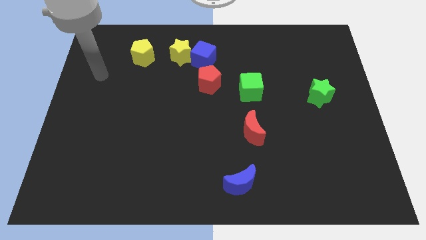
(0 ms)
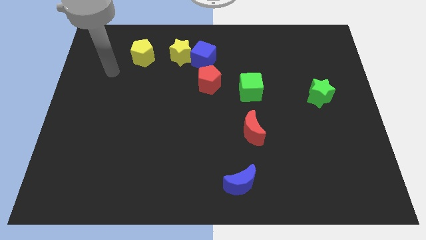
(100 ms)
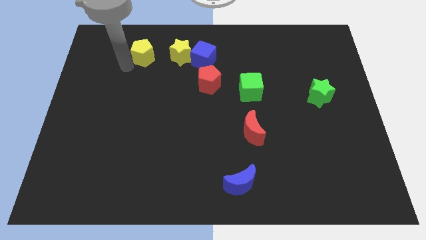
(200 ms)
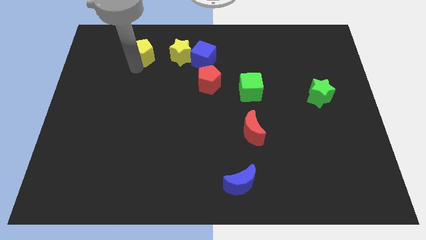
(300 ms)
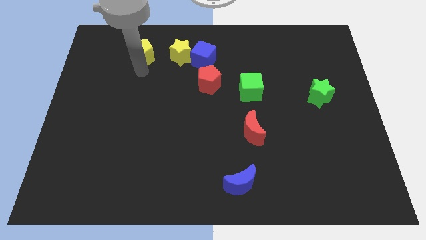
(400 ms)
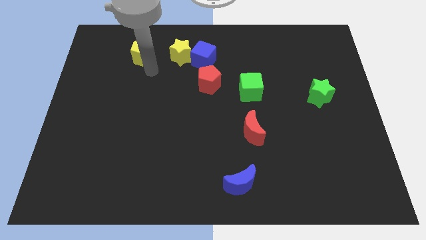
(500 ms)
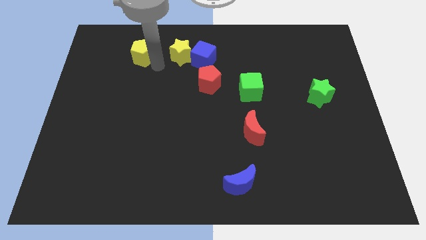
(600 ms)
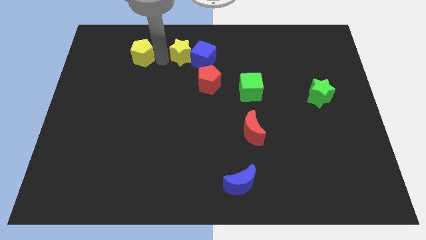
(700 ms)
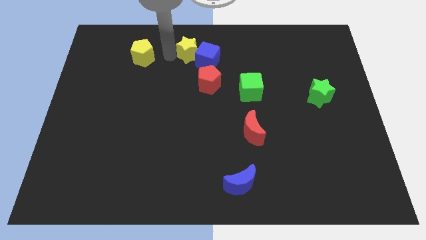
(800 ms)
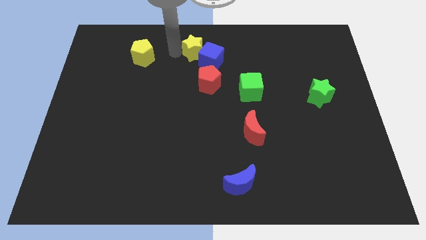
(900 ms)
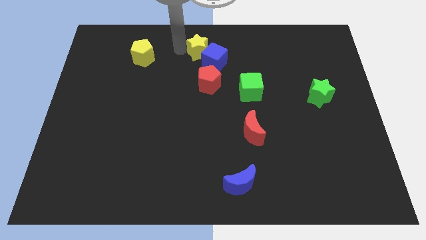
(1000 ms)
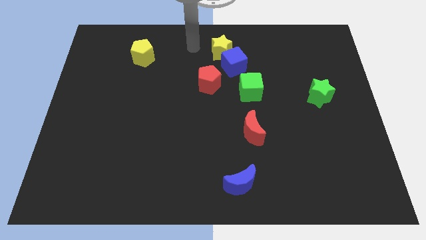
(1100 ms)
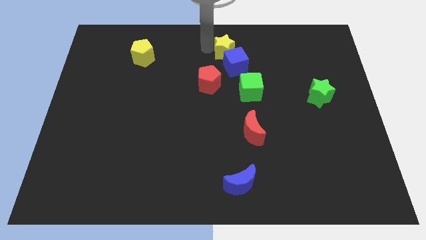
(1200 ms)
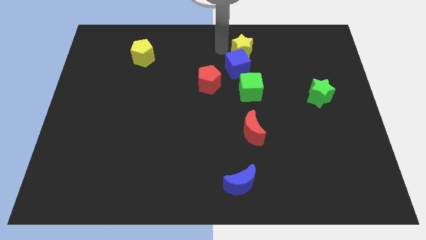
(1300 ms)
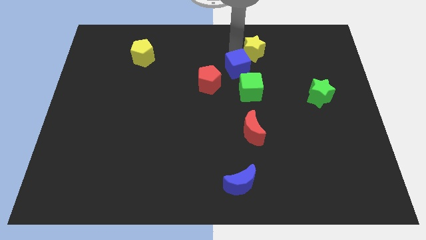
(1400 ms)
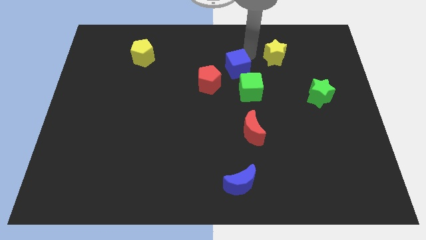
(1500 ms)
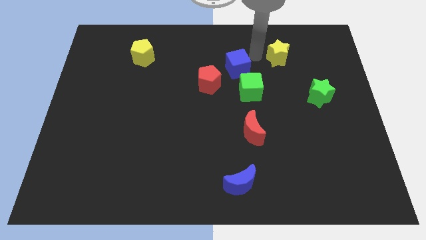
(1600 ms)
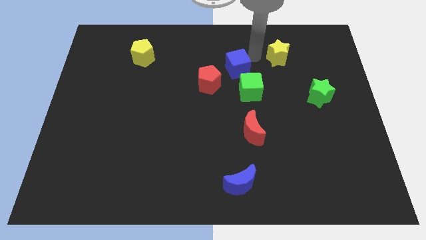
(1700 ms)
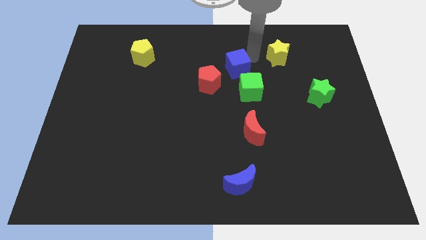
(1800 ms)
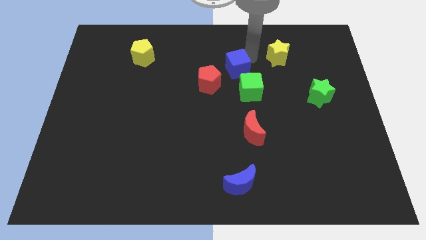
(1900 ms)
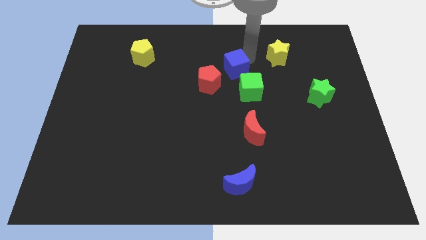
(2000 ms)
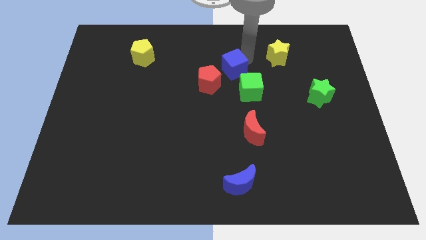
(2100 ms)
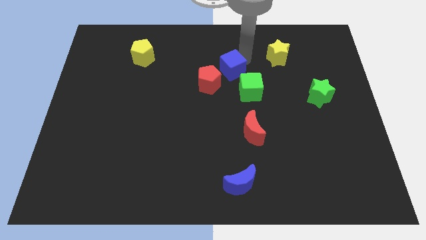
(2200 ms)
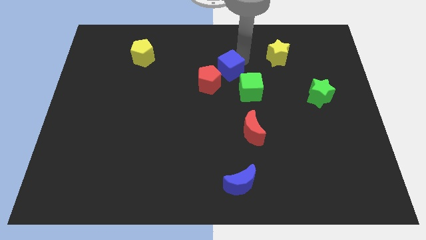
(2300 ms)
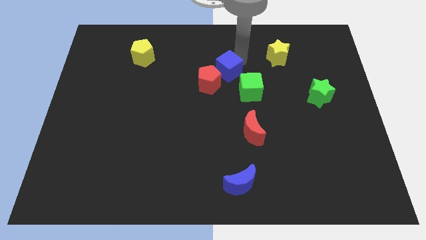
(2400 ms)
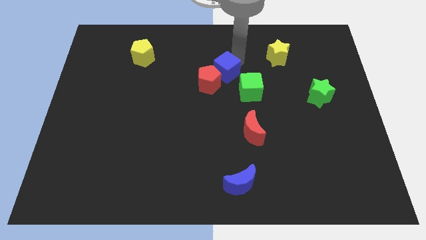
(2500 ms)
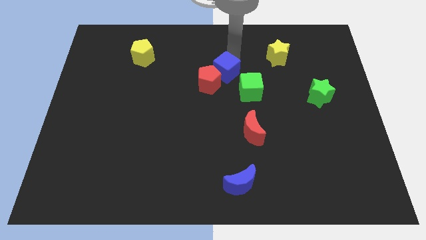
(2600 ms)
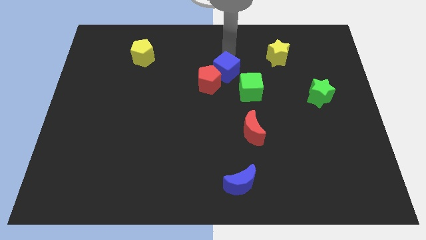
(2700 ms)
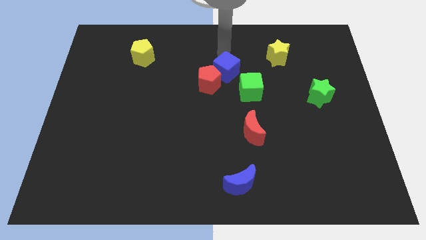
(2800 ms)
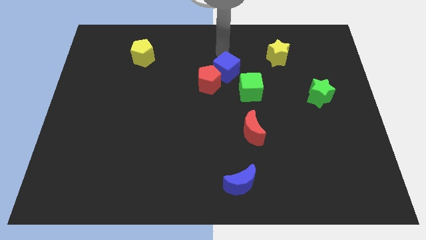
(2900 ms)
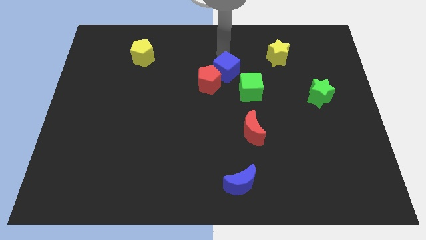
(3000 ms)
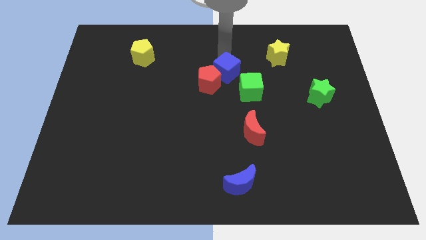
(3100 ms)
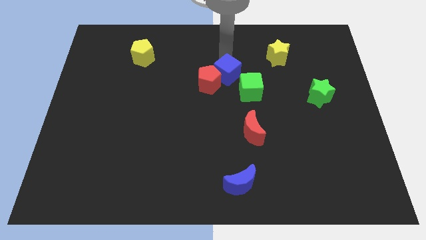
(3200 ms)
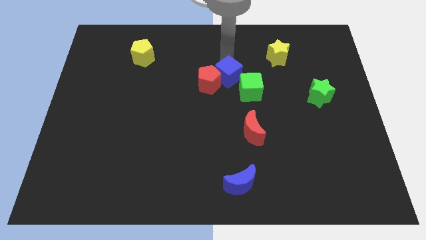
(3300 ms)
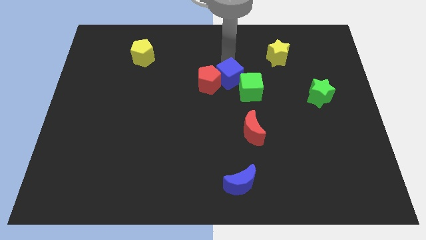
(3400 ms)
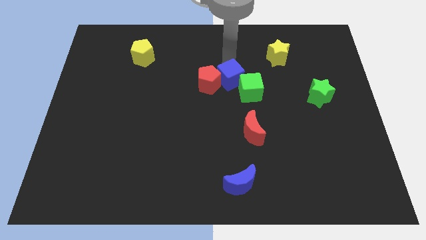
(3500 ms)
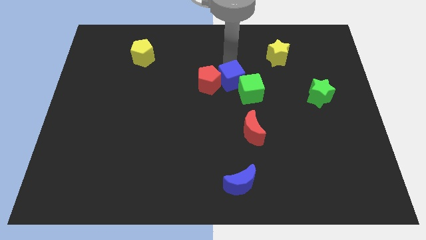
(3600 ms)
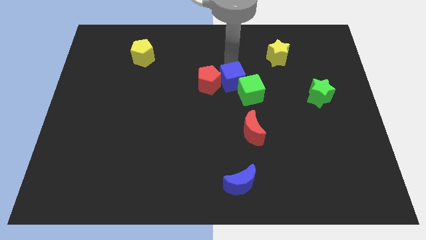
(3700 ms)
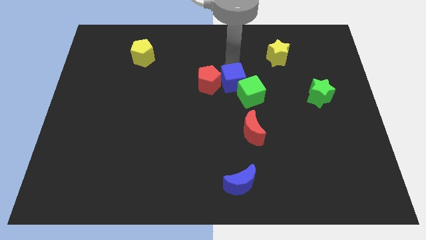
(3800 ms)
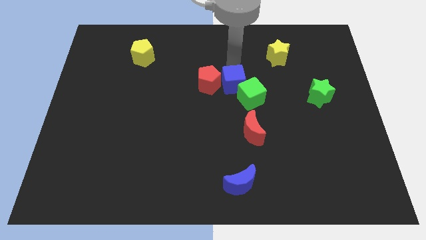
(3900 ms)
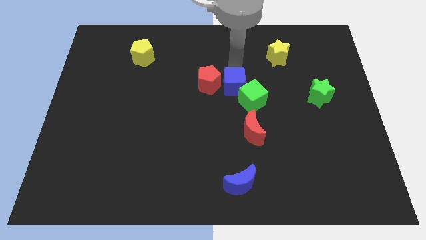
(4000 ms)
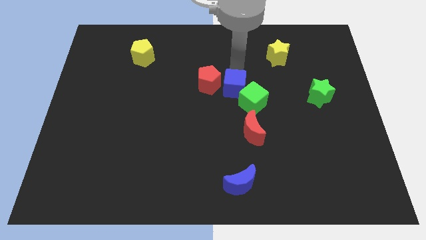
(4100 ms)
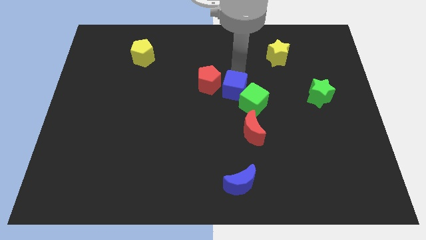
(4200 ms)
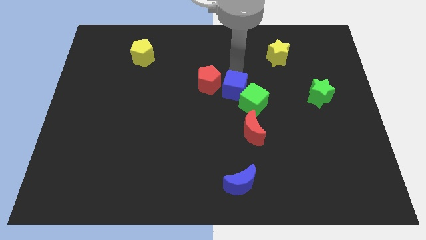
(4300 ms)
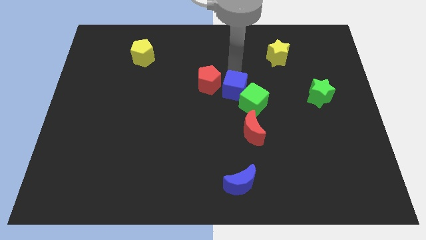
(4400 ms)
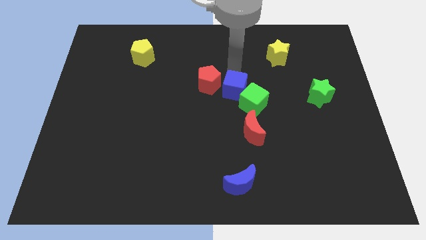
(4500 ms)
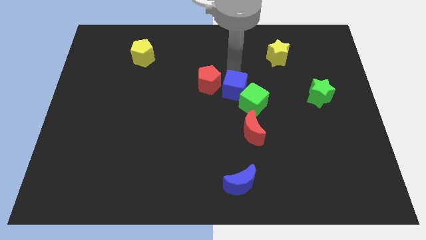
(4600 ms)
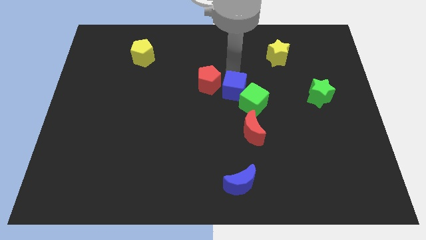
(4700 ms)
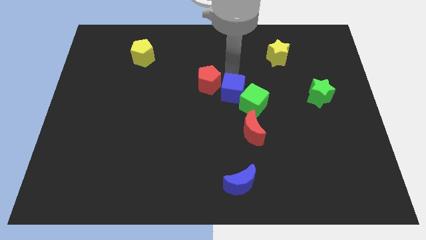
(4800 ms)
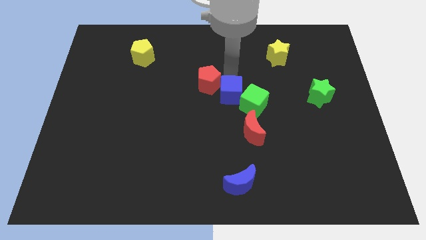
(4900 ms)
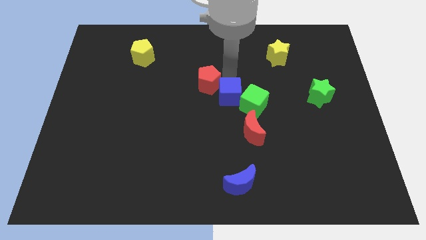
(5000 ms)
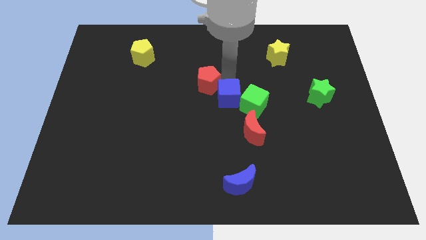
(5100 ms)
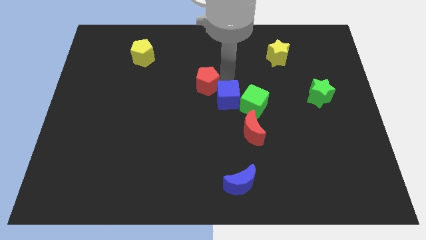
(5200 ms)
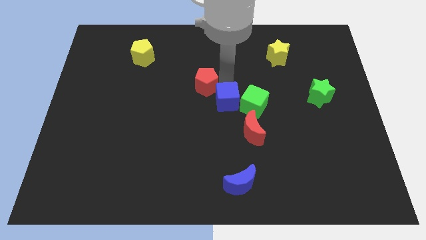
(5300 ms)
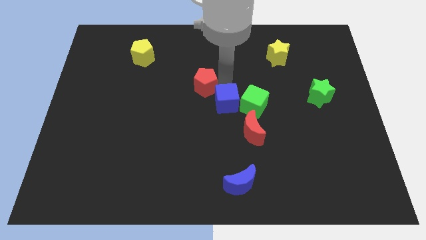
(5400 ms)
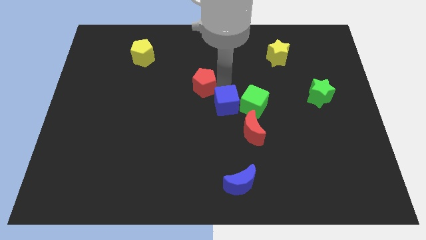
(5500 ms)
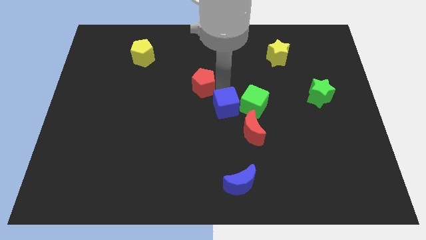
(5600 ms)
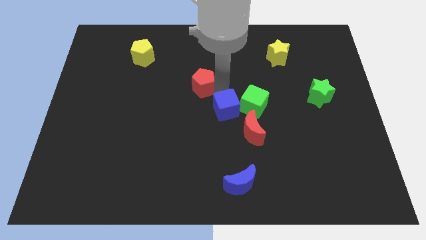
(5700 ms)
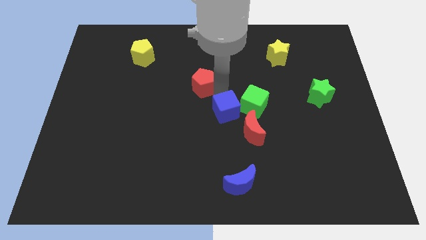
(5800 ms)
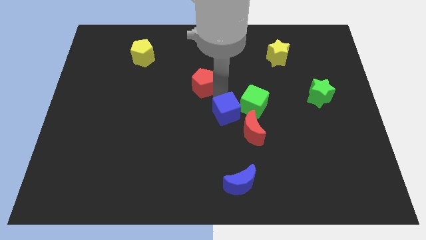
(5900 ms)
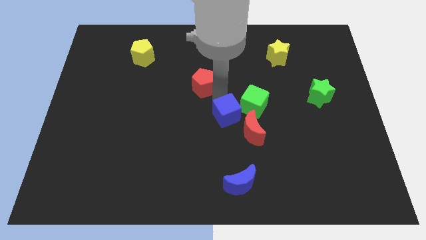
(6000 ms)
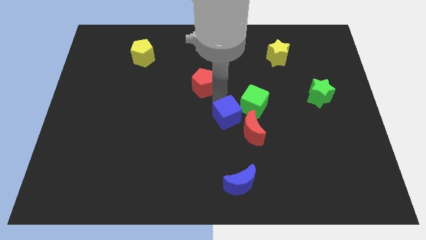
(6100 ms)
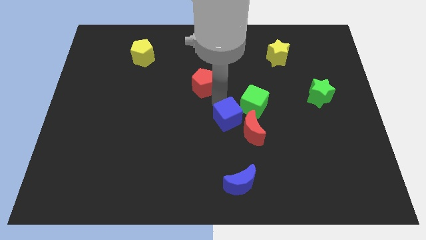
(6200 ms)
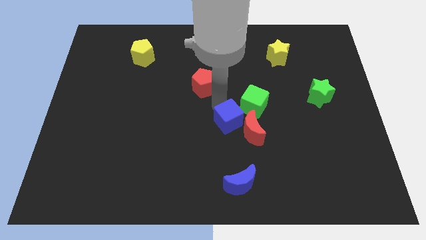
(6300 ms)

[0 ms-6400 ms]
move the blue cube next to the red moon
